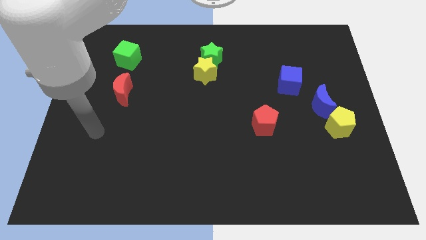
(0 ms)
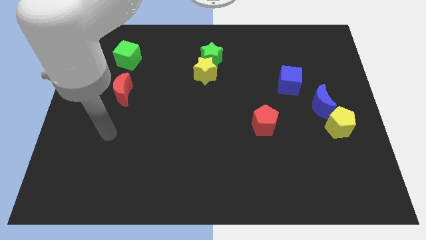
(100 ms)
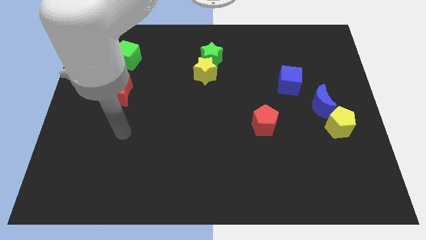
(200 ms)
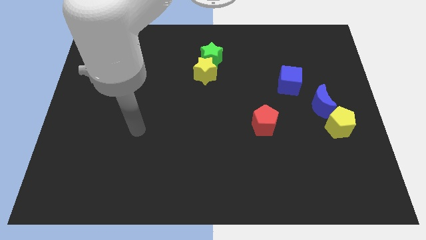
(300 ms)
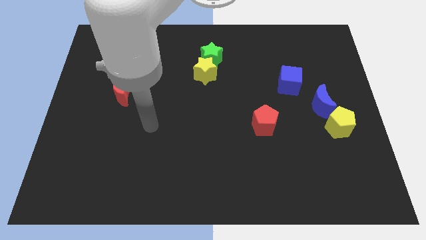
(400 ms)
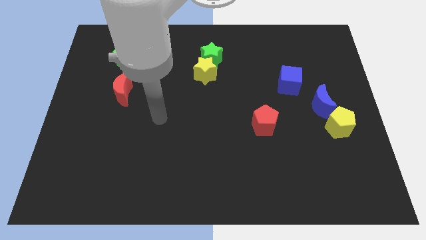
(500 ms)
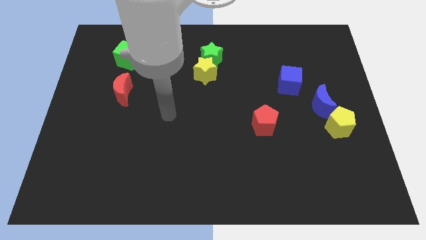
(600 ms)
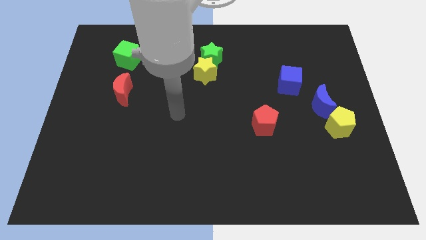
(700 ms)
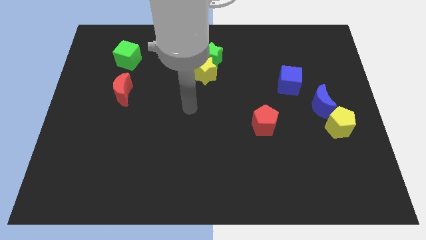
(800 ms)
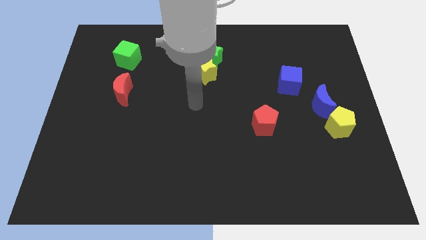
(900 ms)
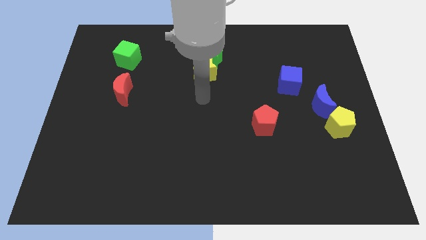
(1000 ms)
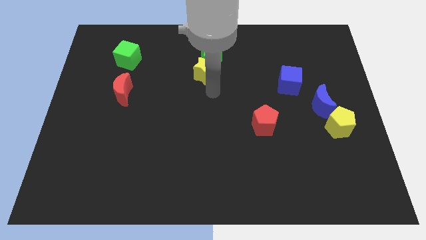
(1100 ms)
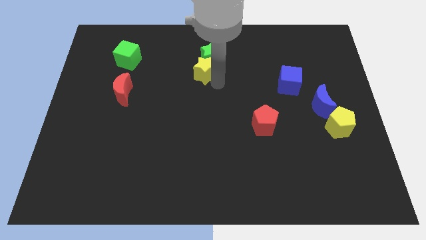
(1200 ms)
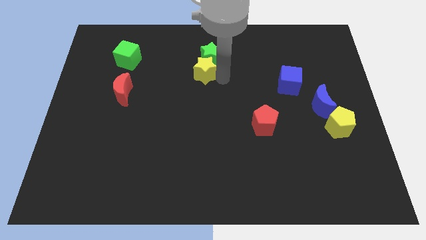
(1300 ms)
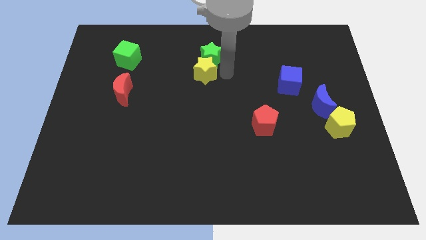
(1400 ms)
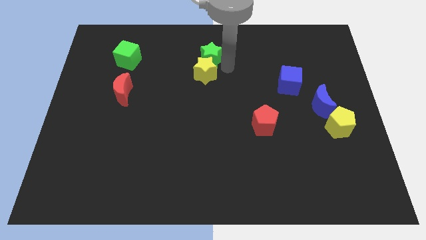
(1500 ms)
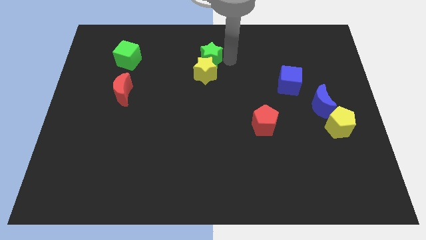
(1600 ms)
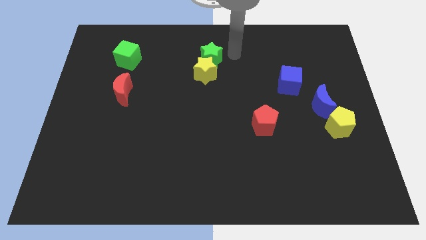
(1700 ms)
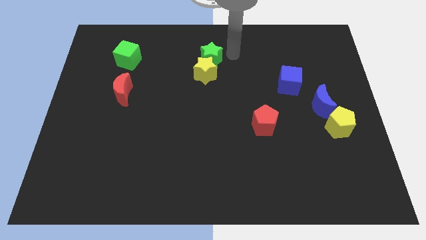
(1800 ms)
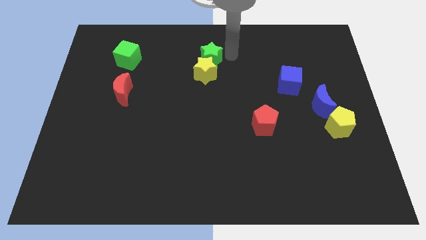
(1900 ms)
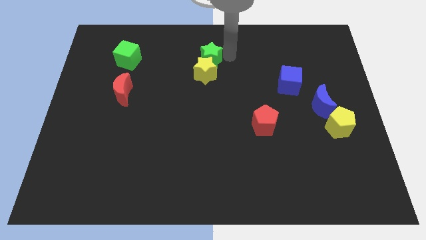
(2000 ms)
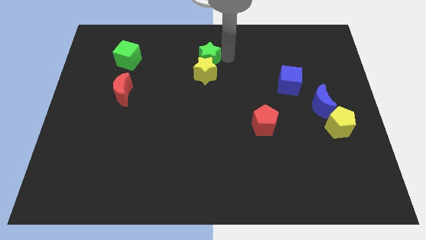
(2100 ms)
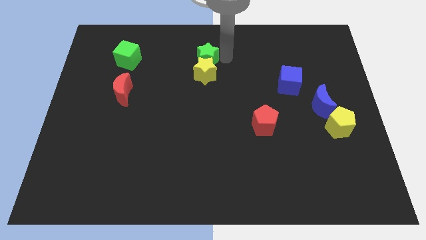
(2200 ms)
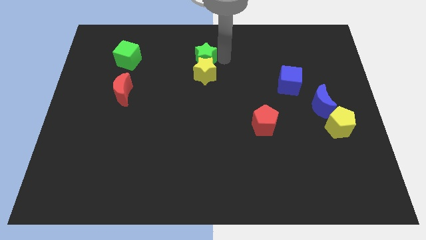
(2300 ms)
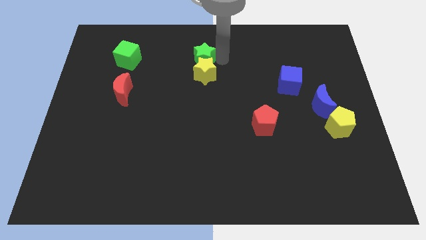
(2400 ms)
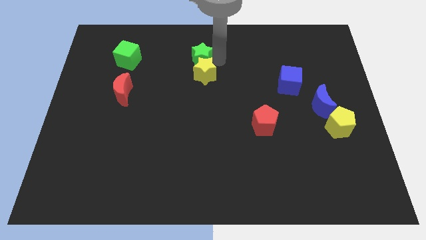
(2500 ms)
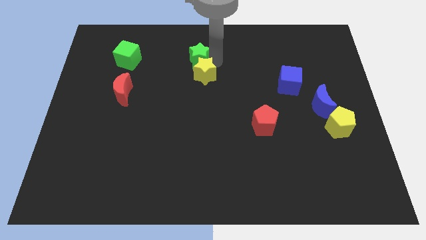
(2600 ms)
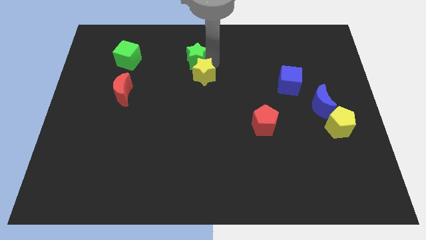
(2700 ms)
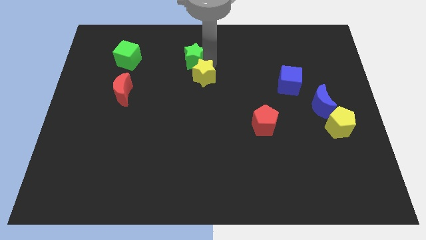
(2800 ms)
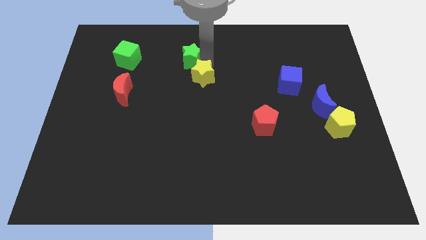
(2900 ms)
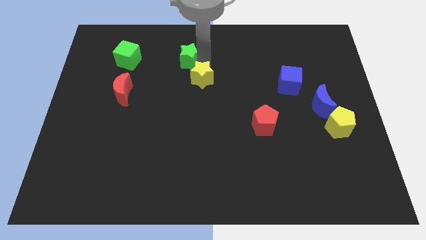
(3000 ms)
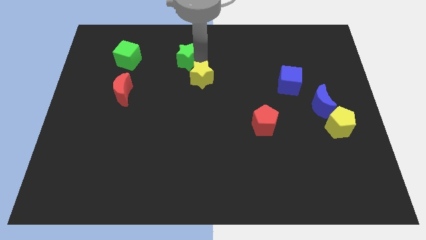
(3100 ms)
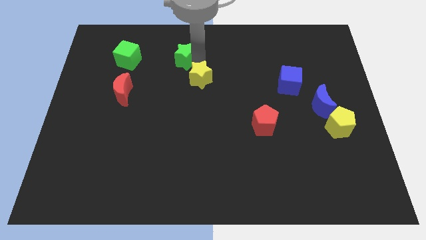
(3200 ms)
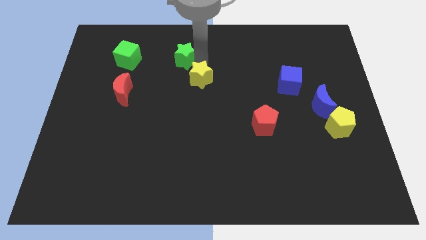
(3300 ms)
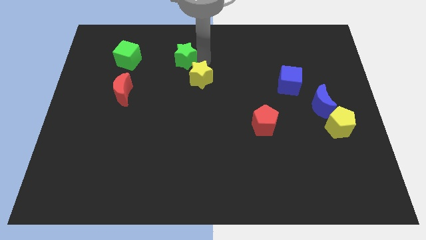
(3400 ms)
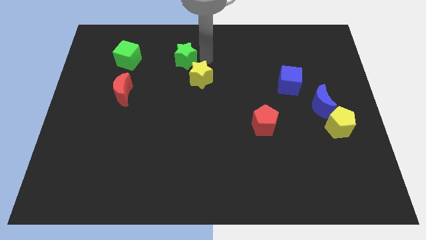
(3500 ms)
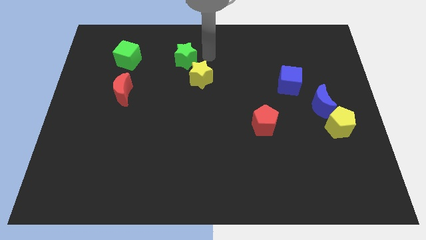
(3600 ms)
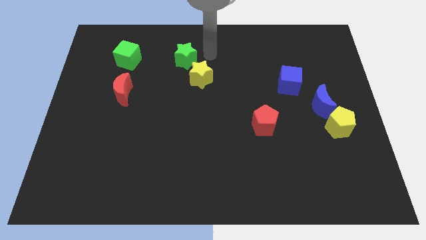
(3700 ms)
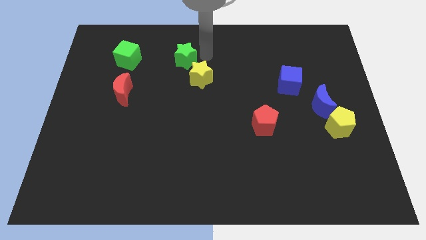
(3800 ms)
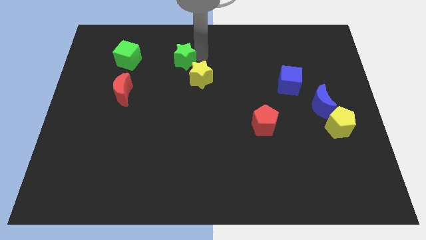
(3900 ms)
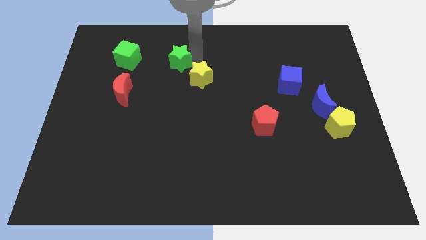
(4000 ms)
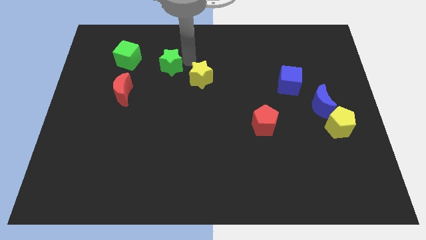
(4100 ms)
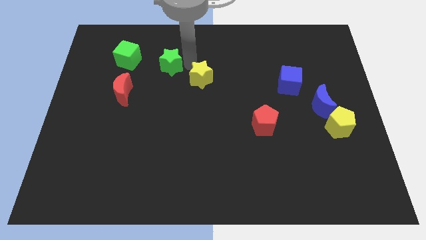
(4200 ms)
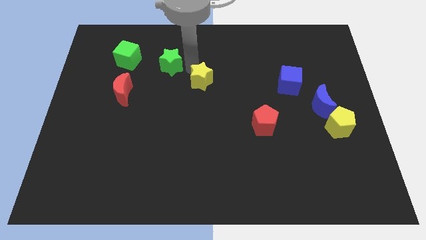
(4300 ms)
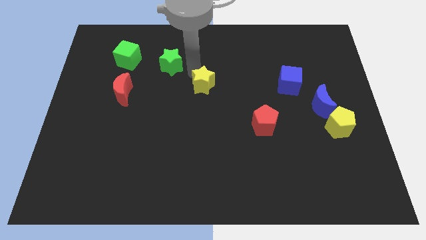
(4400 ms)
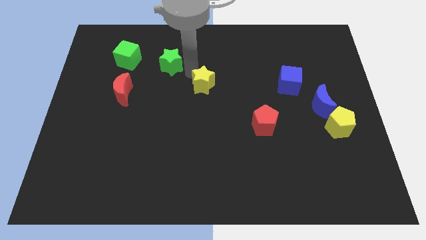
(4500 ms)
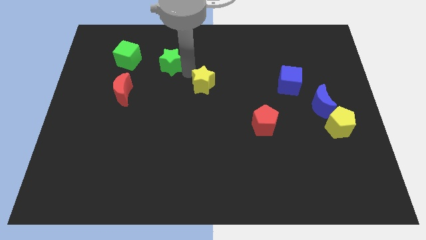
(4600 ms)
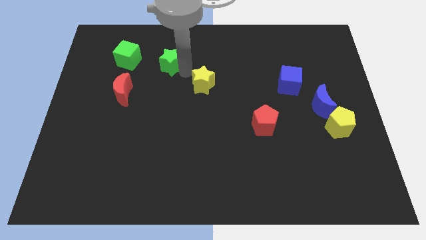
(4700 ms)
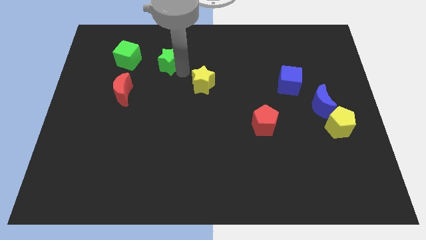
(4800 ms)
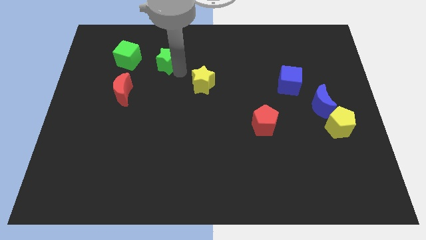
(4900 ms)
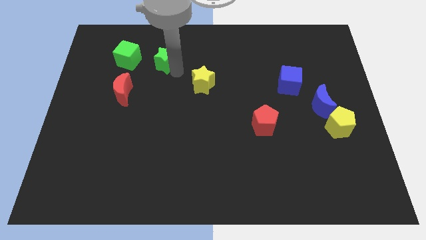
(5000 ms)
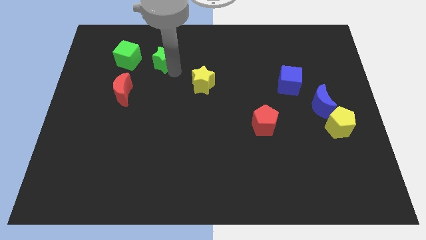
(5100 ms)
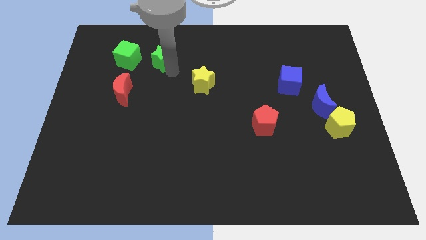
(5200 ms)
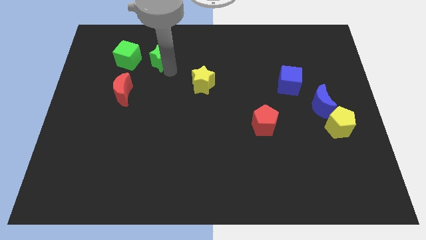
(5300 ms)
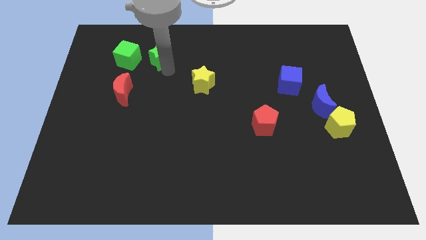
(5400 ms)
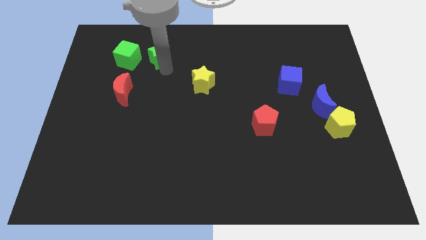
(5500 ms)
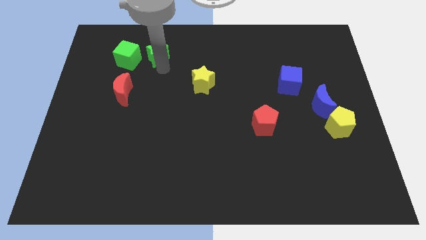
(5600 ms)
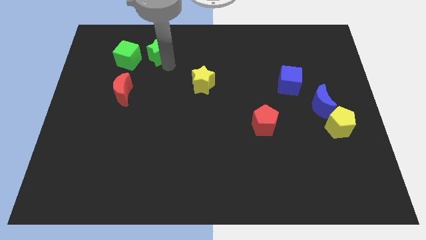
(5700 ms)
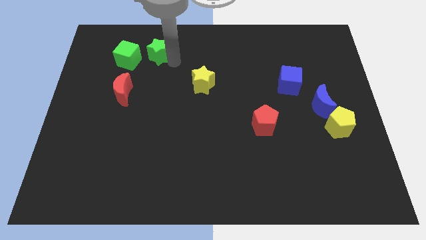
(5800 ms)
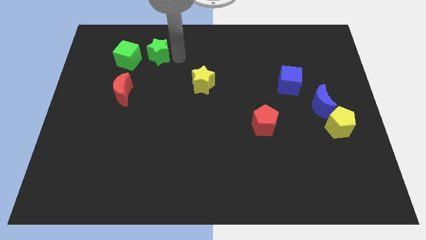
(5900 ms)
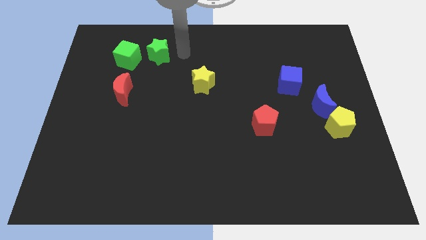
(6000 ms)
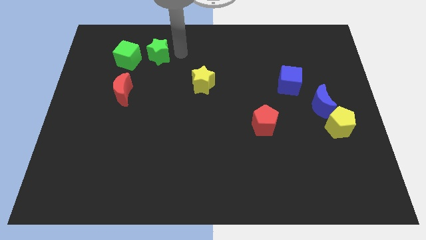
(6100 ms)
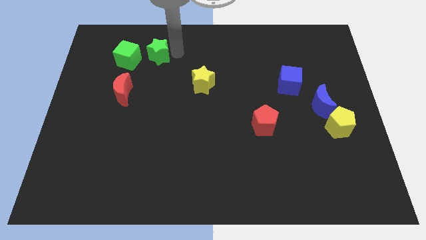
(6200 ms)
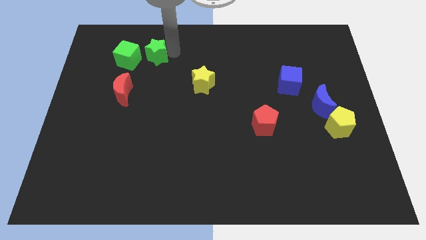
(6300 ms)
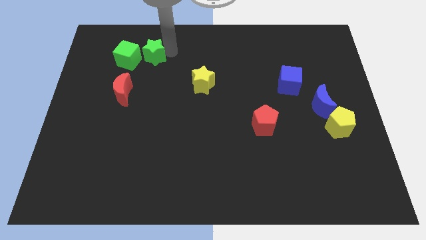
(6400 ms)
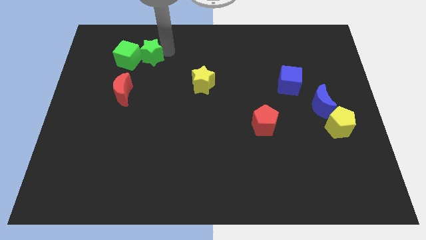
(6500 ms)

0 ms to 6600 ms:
push the green star towards the green cube
